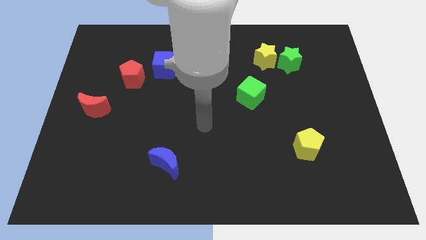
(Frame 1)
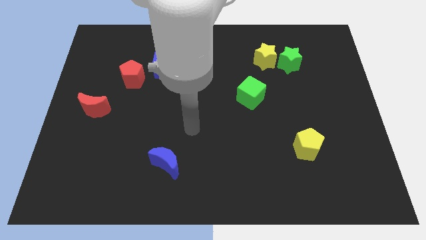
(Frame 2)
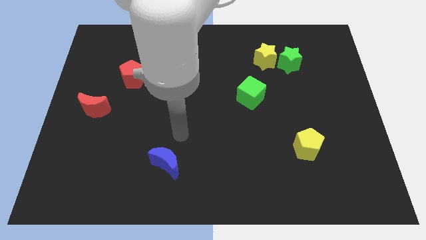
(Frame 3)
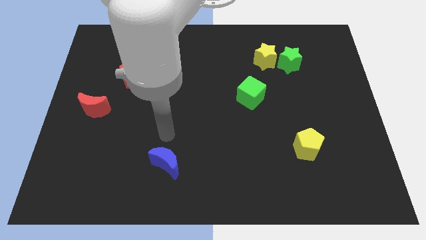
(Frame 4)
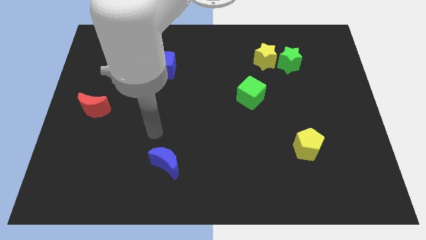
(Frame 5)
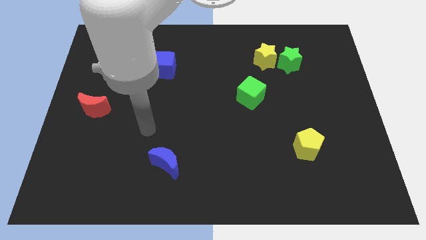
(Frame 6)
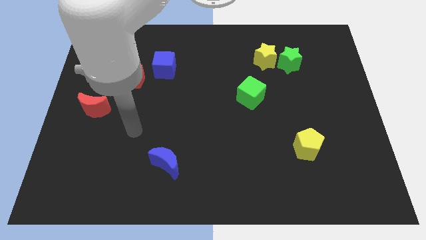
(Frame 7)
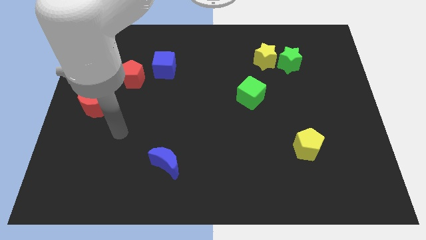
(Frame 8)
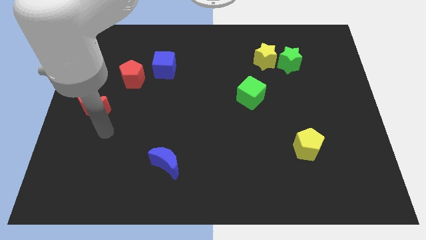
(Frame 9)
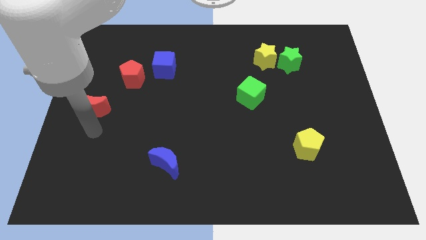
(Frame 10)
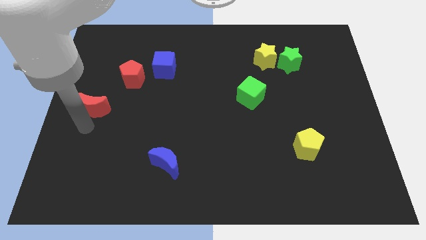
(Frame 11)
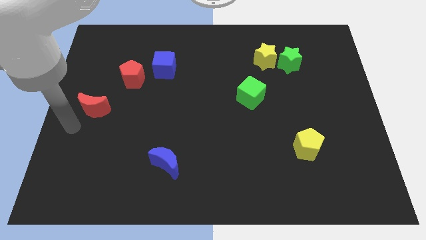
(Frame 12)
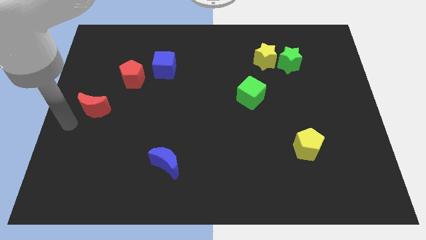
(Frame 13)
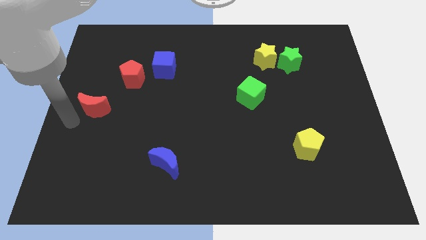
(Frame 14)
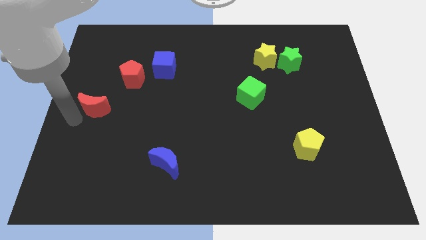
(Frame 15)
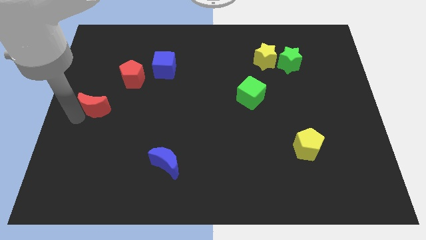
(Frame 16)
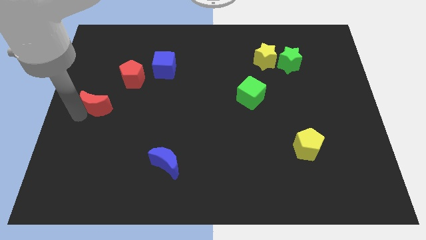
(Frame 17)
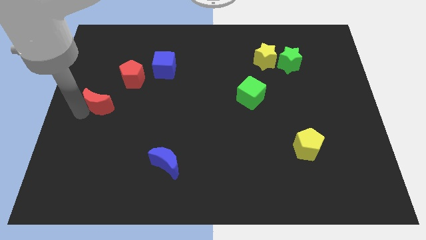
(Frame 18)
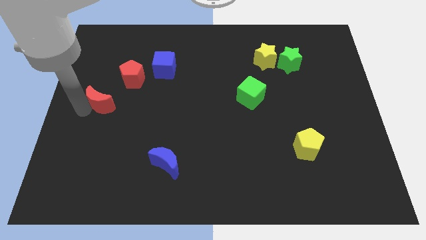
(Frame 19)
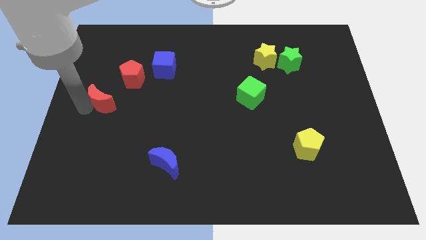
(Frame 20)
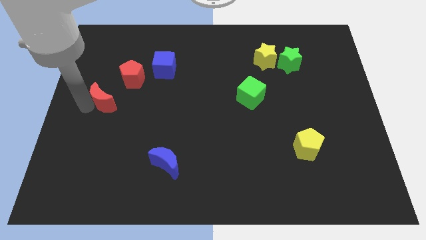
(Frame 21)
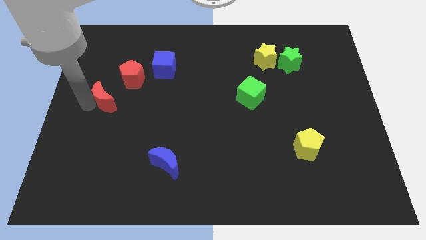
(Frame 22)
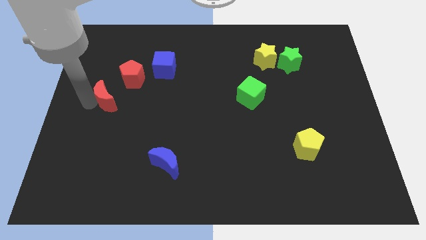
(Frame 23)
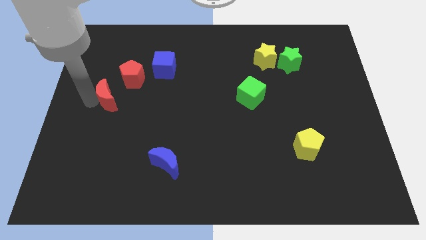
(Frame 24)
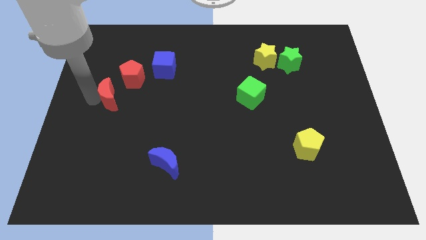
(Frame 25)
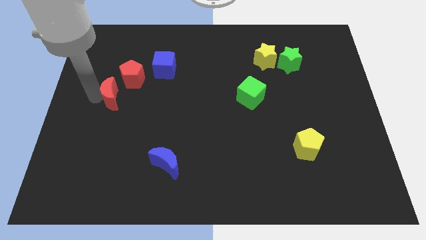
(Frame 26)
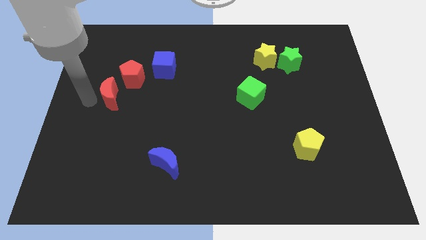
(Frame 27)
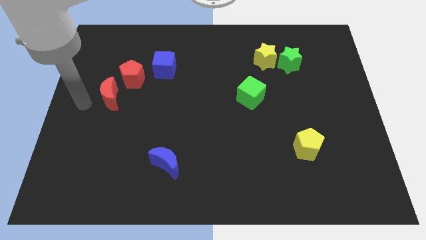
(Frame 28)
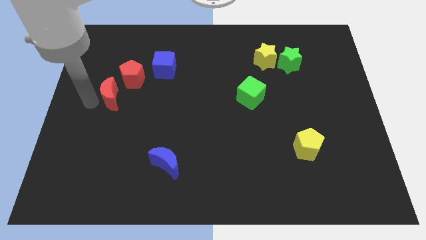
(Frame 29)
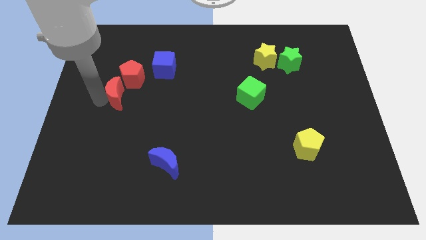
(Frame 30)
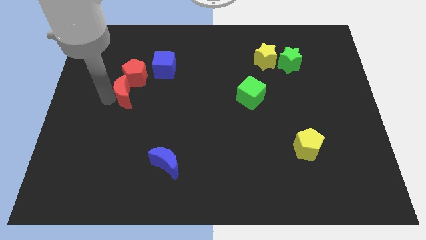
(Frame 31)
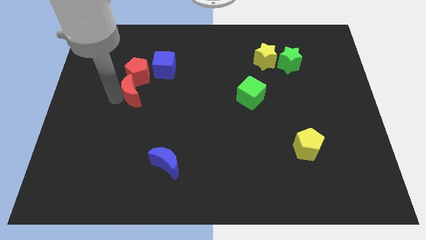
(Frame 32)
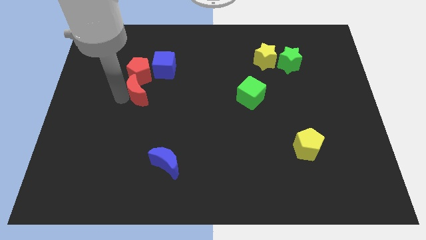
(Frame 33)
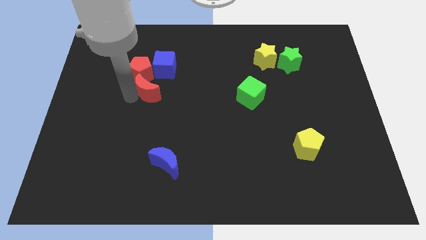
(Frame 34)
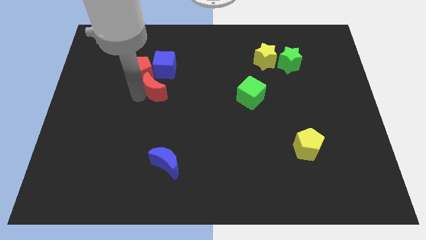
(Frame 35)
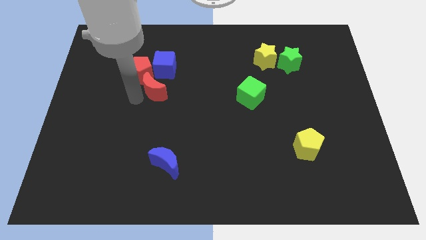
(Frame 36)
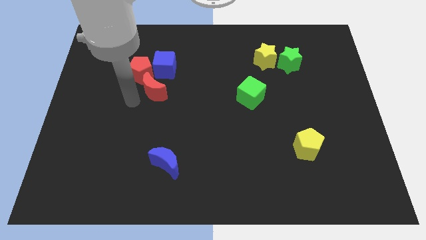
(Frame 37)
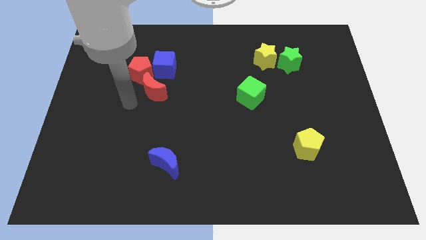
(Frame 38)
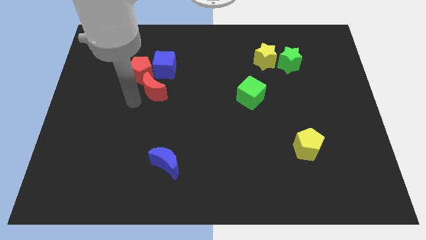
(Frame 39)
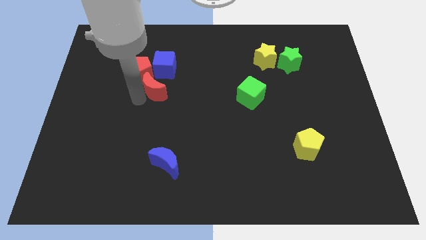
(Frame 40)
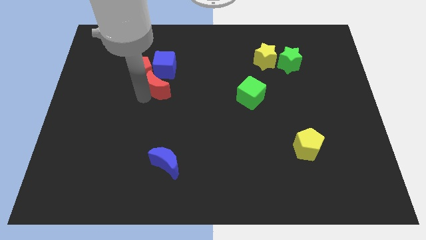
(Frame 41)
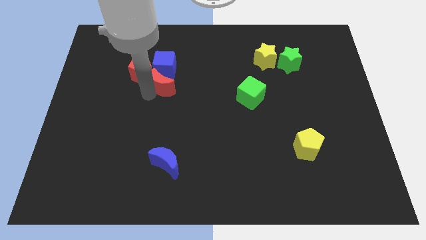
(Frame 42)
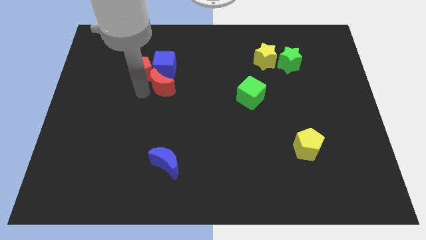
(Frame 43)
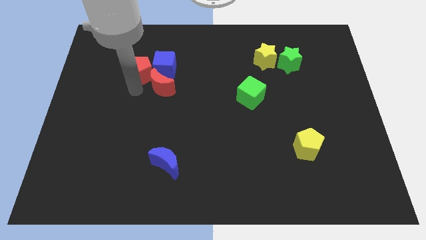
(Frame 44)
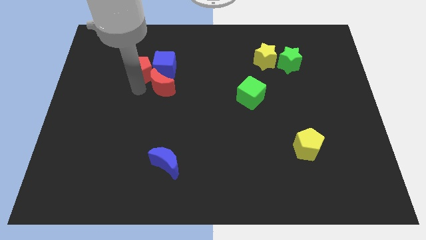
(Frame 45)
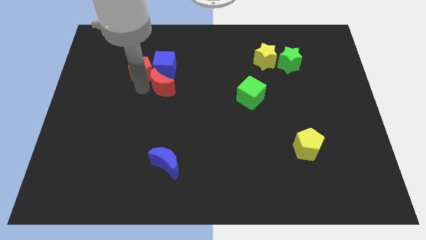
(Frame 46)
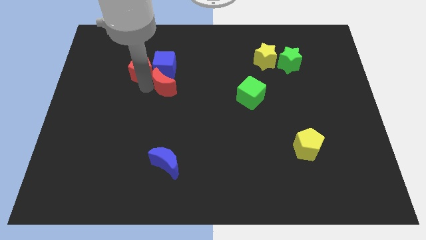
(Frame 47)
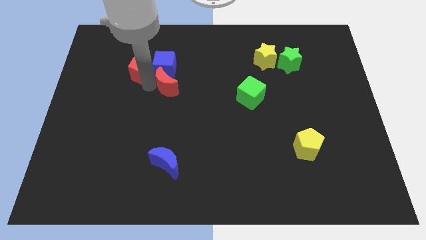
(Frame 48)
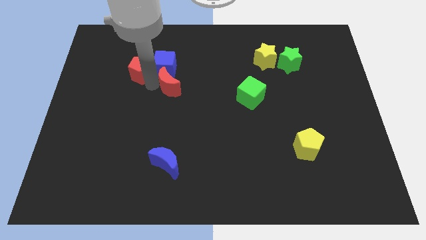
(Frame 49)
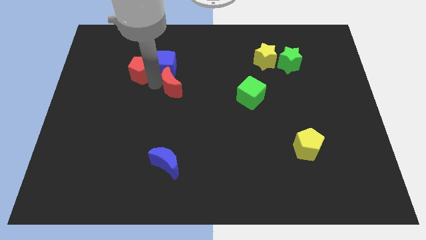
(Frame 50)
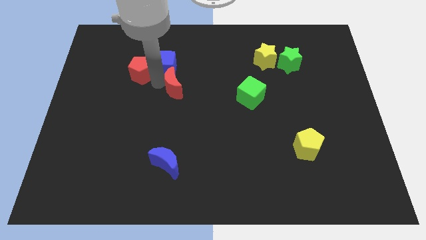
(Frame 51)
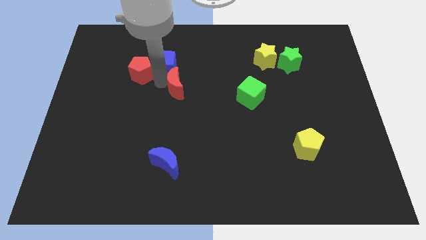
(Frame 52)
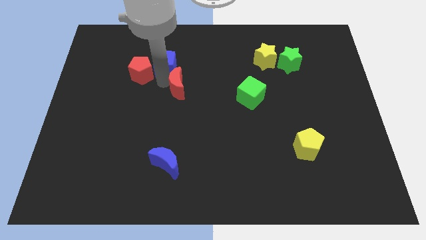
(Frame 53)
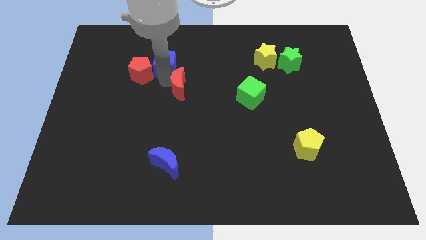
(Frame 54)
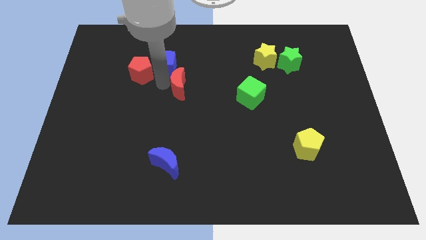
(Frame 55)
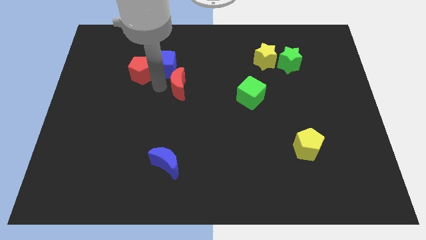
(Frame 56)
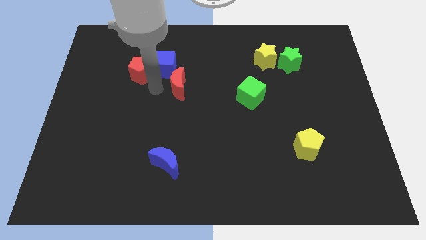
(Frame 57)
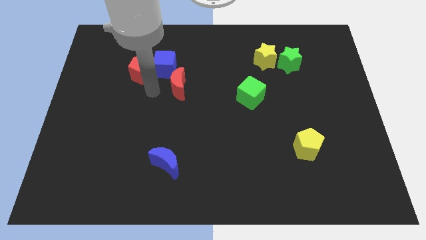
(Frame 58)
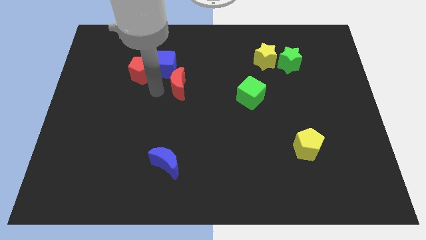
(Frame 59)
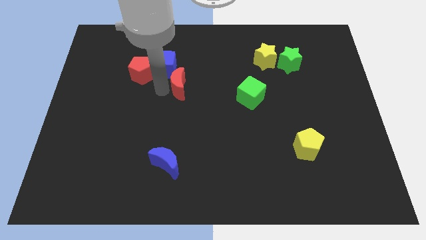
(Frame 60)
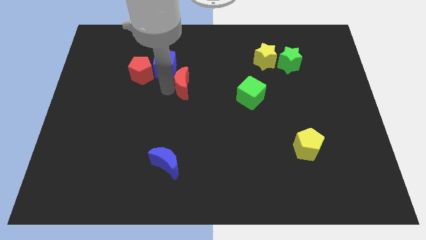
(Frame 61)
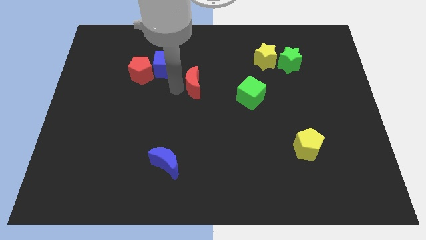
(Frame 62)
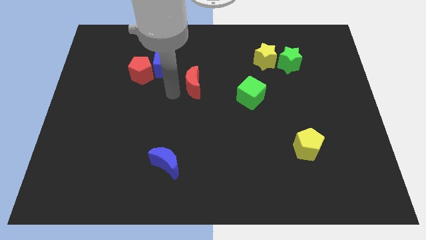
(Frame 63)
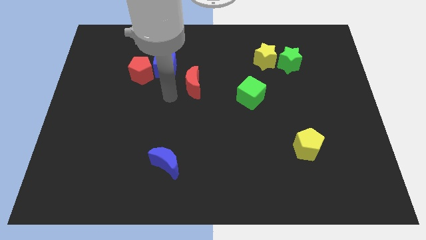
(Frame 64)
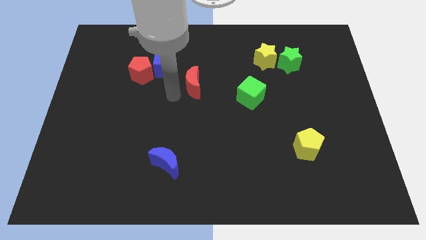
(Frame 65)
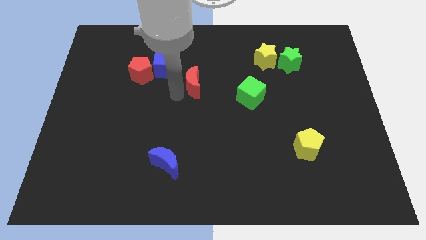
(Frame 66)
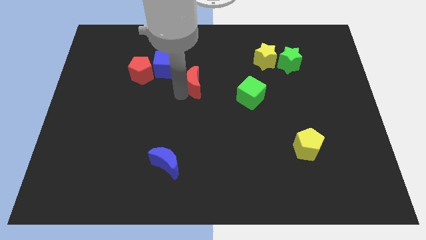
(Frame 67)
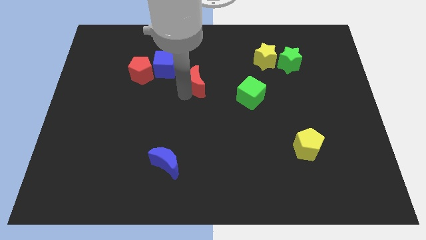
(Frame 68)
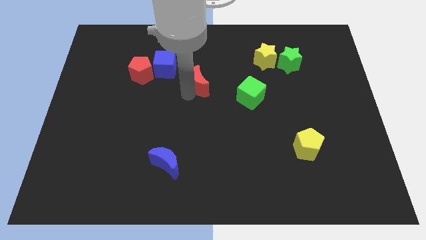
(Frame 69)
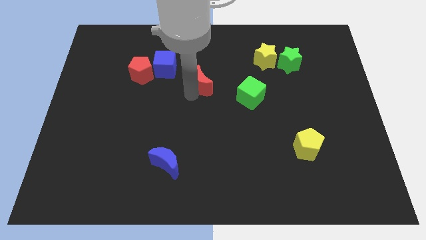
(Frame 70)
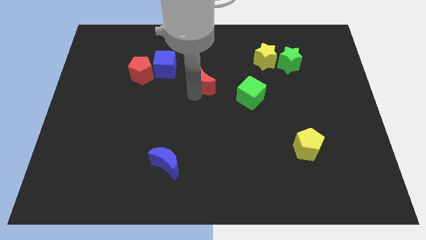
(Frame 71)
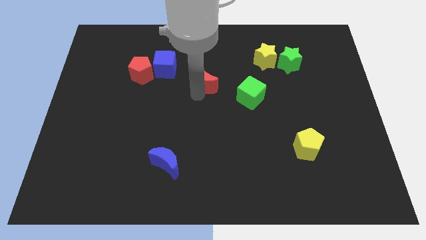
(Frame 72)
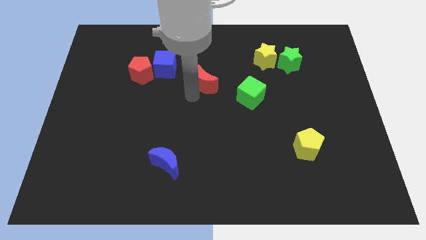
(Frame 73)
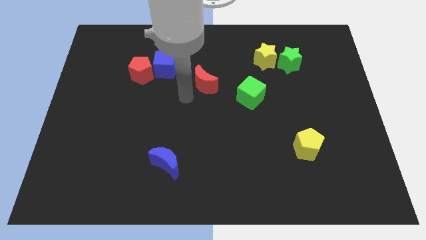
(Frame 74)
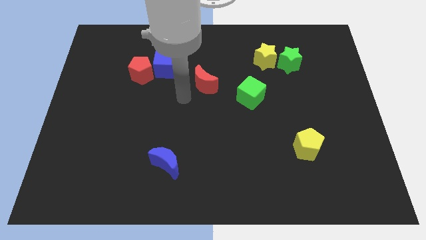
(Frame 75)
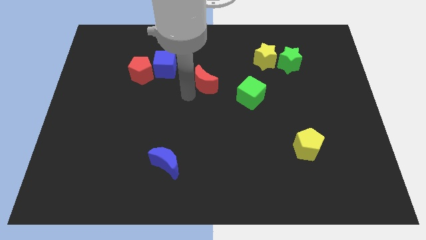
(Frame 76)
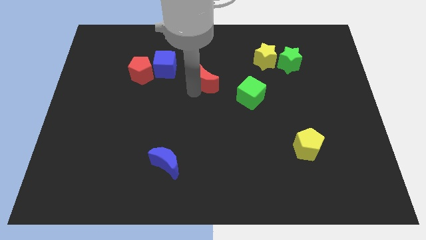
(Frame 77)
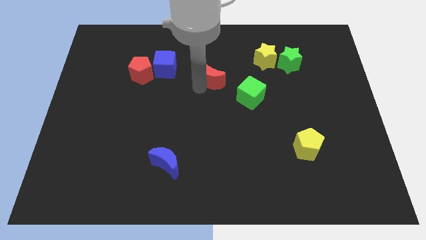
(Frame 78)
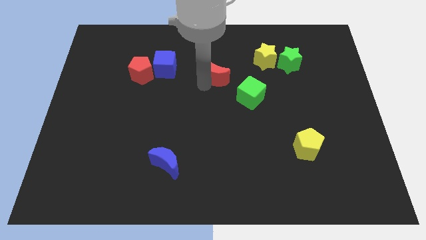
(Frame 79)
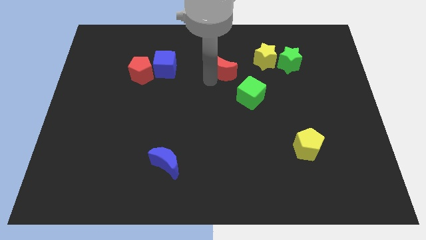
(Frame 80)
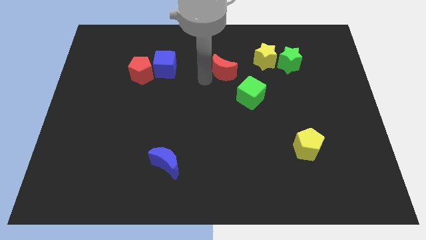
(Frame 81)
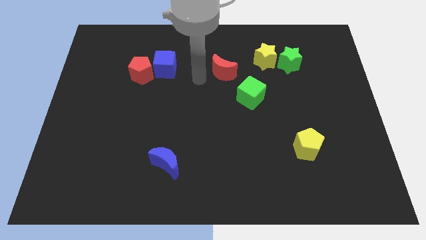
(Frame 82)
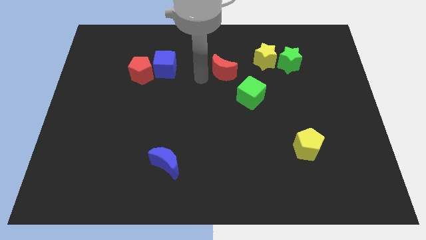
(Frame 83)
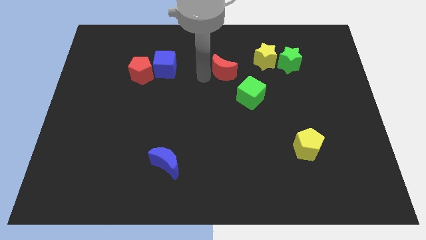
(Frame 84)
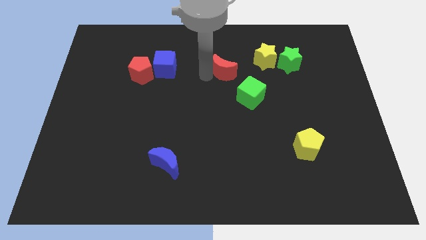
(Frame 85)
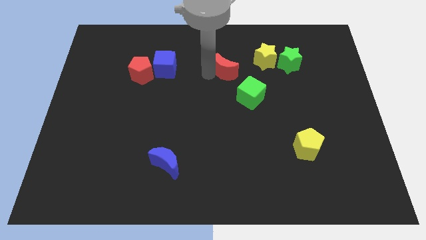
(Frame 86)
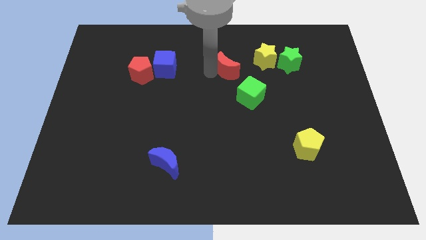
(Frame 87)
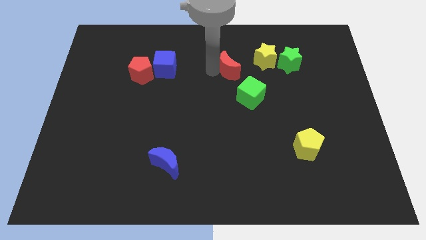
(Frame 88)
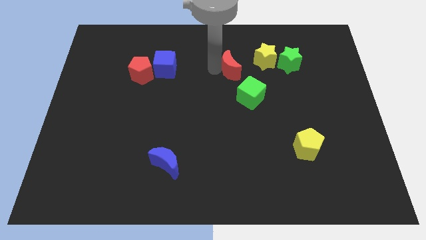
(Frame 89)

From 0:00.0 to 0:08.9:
put the red moon to the top of the green cube
